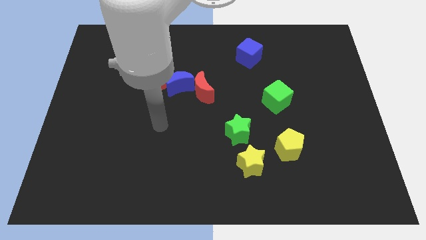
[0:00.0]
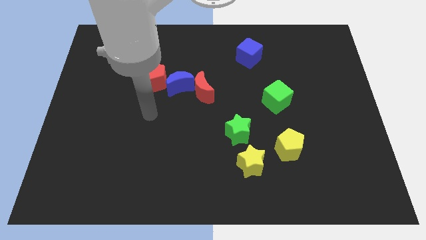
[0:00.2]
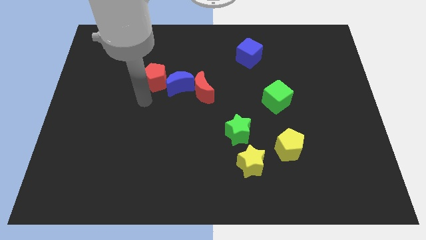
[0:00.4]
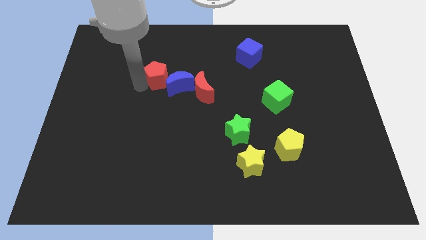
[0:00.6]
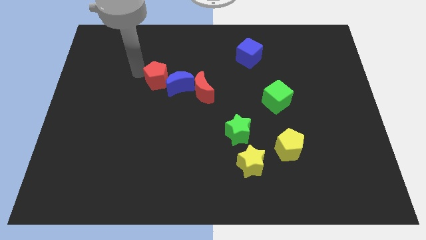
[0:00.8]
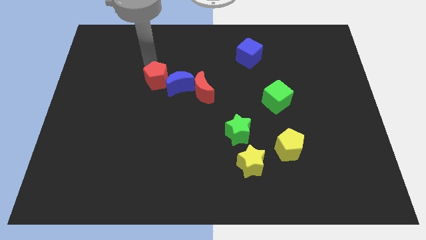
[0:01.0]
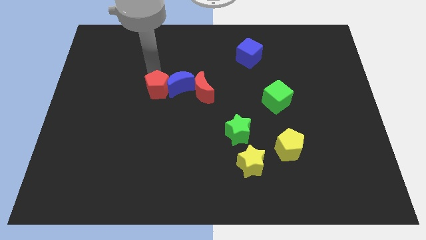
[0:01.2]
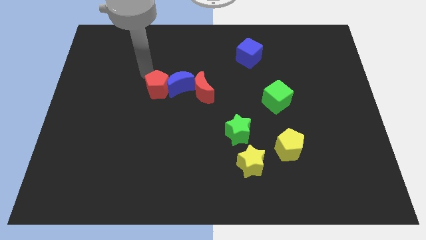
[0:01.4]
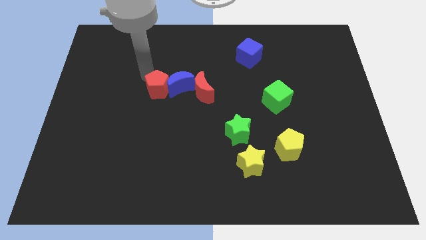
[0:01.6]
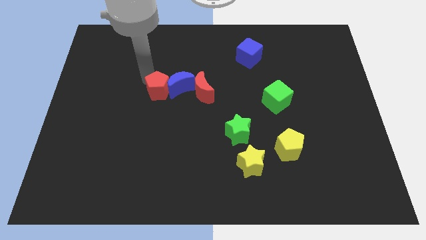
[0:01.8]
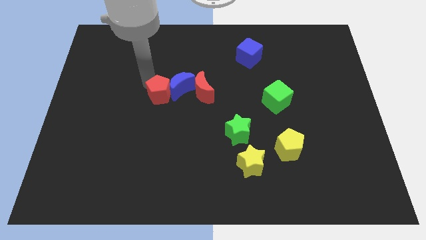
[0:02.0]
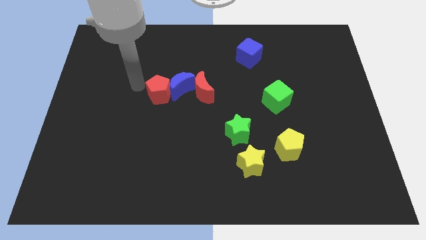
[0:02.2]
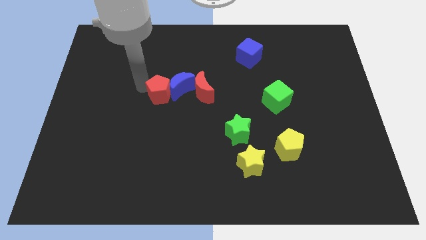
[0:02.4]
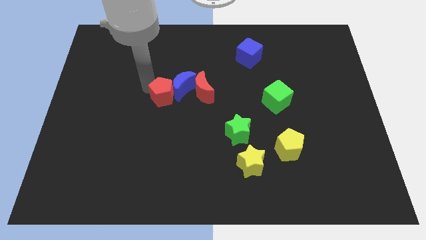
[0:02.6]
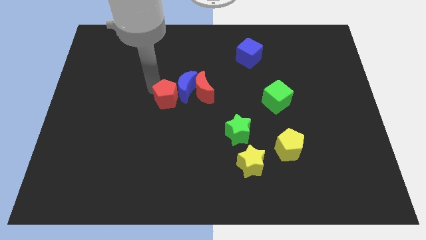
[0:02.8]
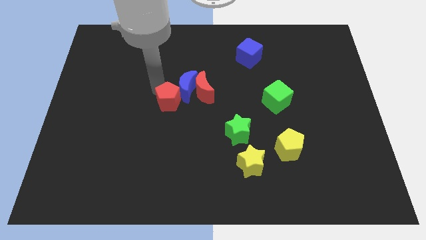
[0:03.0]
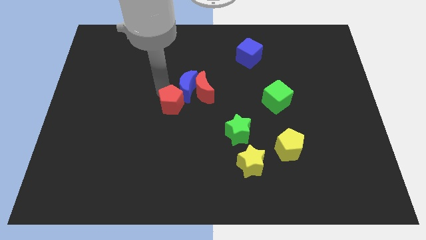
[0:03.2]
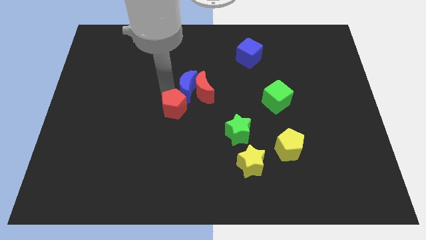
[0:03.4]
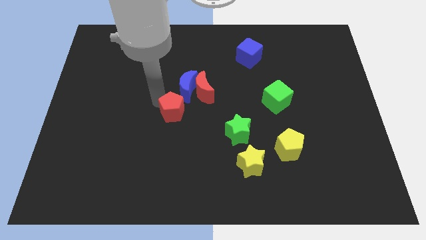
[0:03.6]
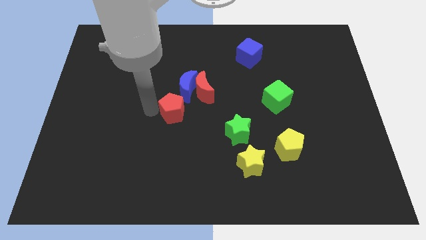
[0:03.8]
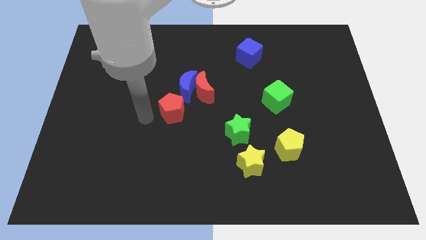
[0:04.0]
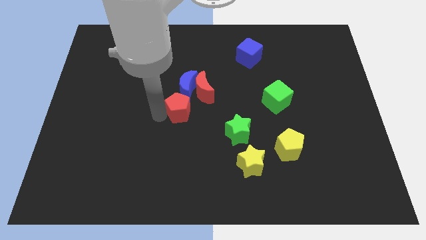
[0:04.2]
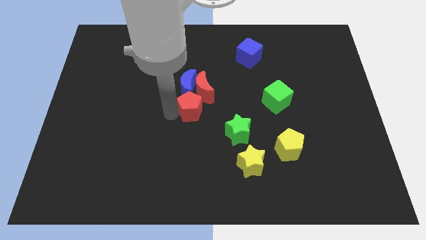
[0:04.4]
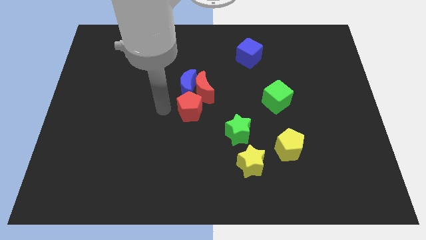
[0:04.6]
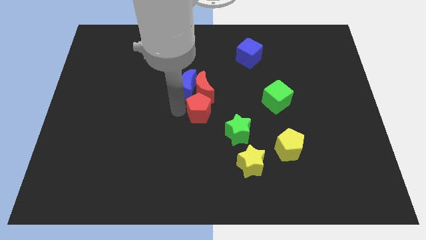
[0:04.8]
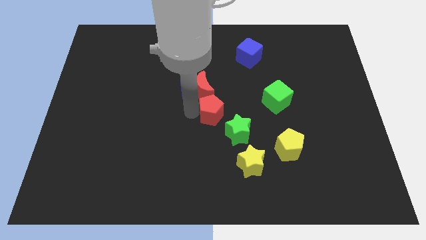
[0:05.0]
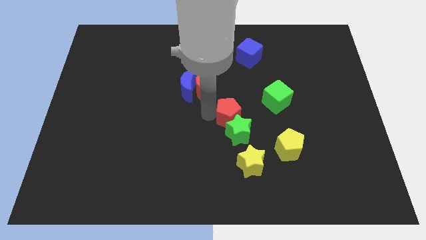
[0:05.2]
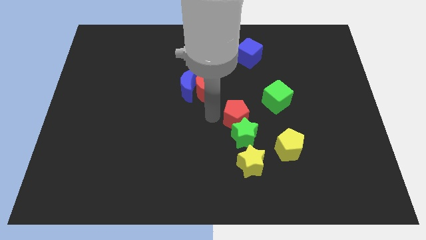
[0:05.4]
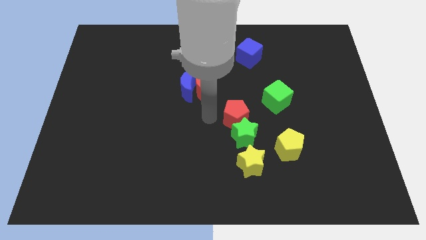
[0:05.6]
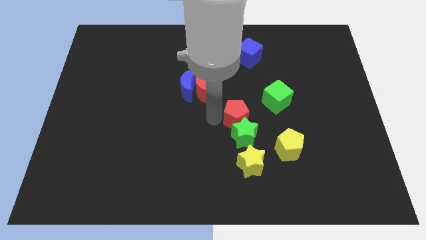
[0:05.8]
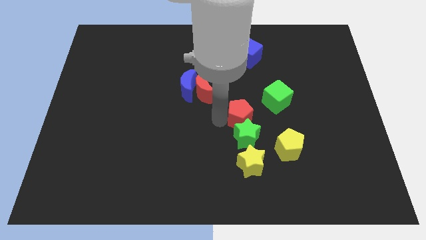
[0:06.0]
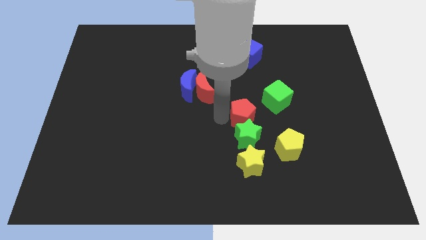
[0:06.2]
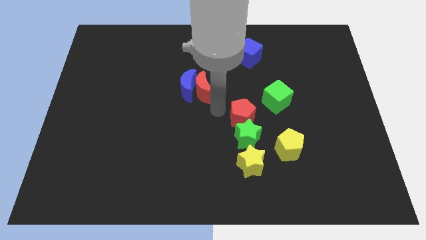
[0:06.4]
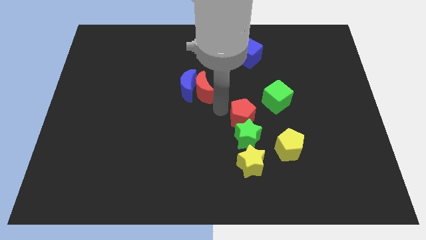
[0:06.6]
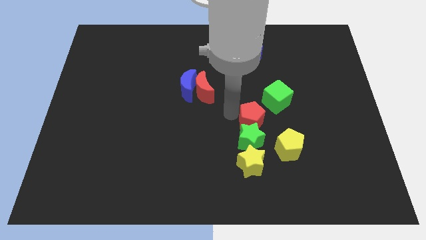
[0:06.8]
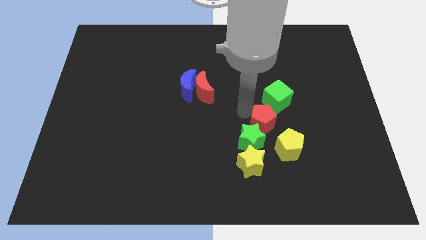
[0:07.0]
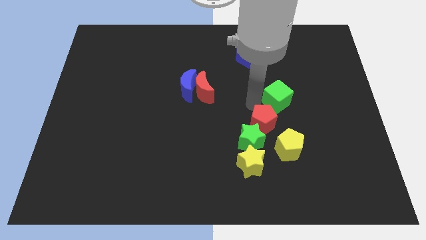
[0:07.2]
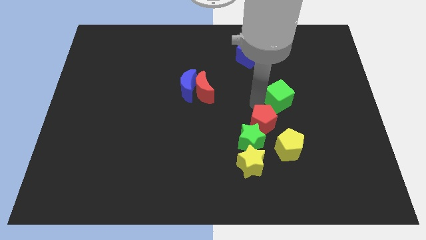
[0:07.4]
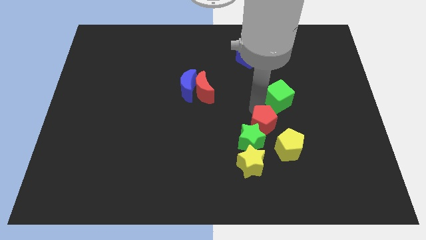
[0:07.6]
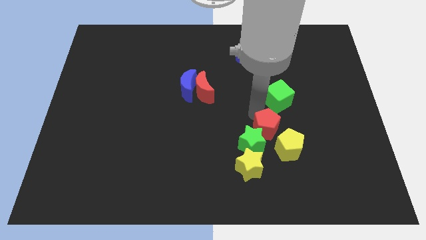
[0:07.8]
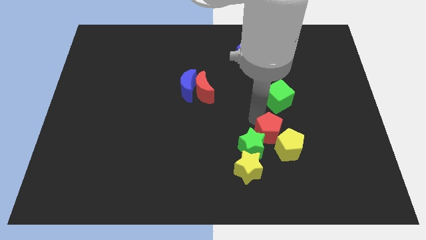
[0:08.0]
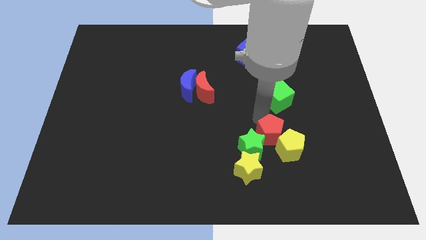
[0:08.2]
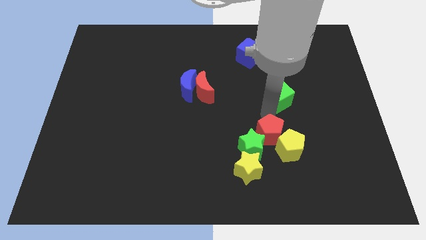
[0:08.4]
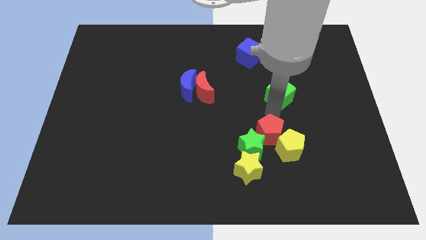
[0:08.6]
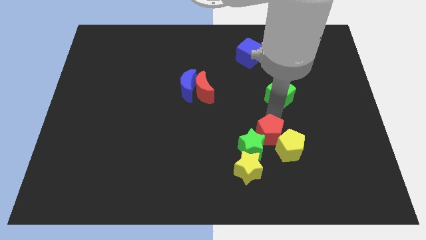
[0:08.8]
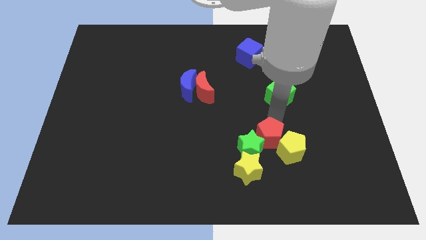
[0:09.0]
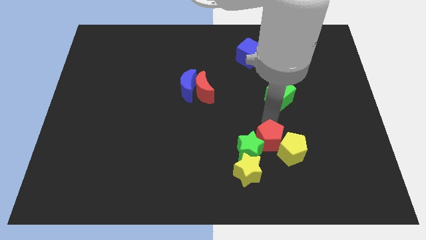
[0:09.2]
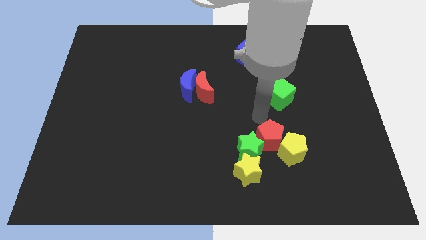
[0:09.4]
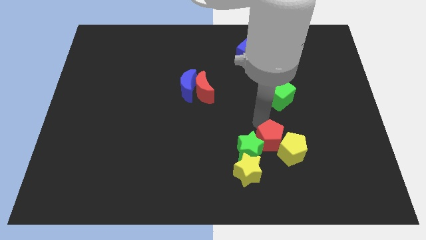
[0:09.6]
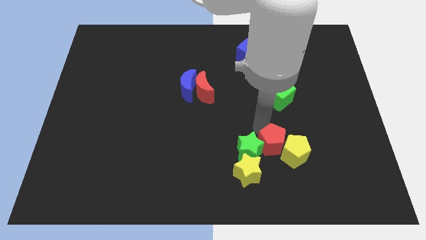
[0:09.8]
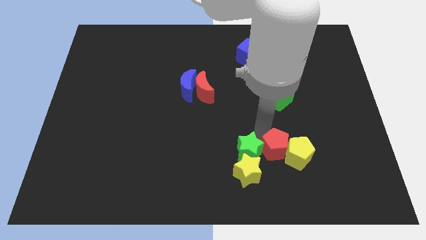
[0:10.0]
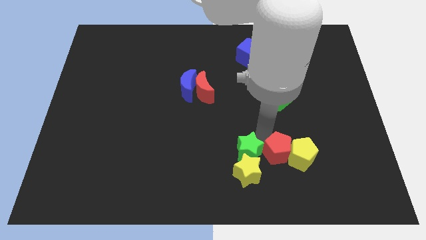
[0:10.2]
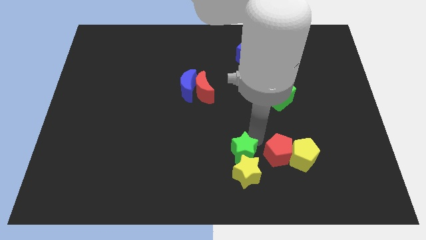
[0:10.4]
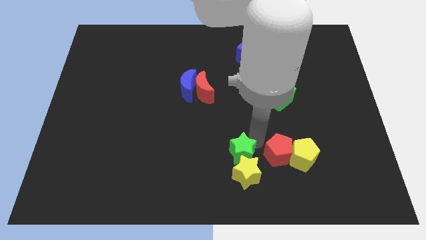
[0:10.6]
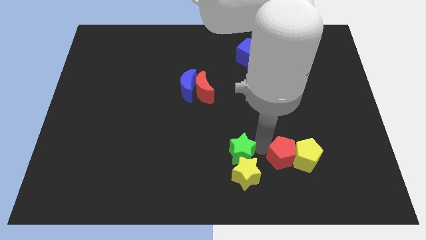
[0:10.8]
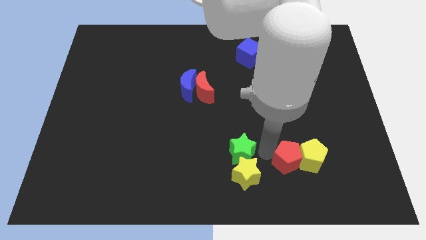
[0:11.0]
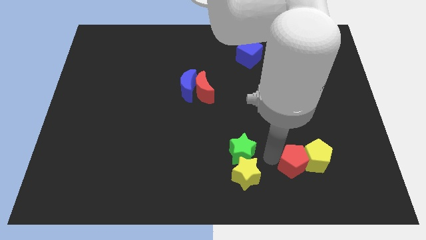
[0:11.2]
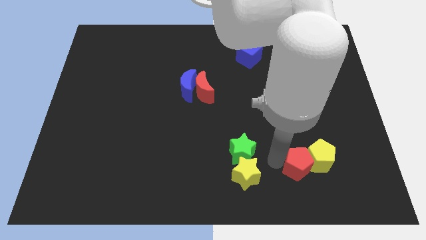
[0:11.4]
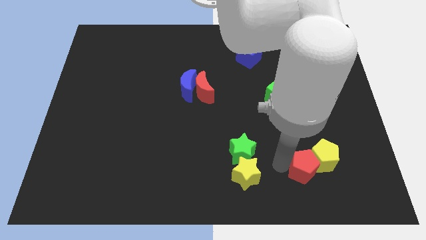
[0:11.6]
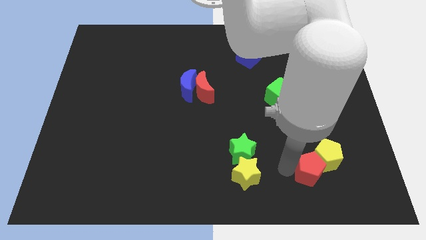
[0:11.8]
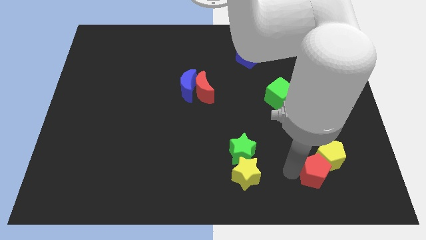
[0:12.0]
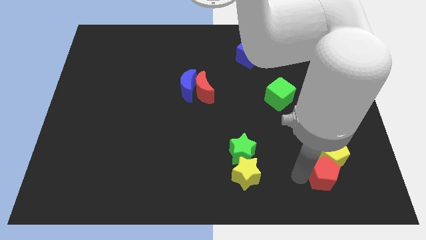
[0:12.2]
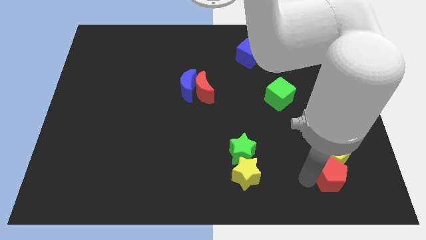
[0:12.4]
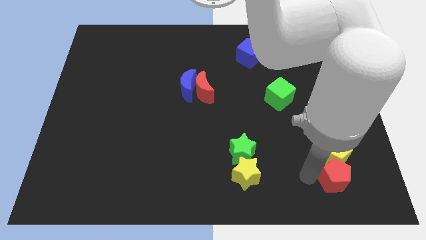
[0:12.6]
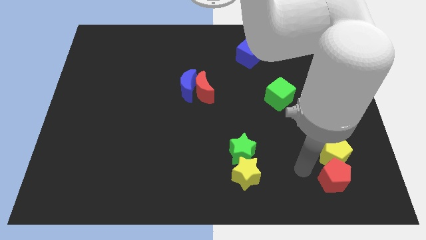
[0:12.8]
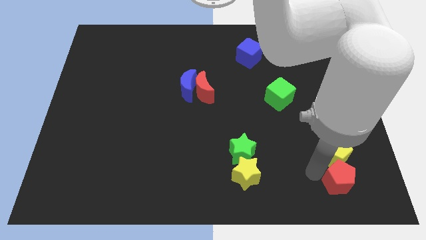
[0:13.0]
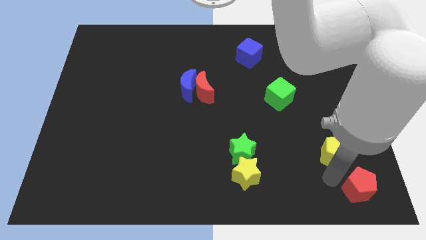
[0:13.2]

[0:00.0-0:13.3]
move the red pentagon to the bottom right

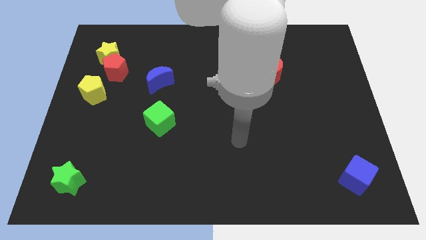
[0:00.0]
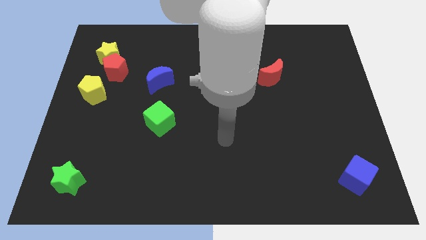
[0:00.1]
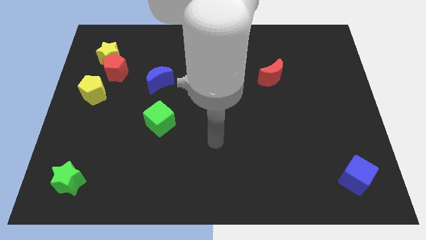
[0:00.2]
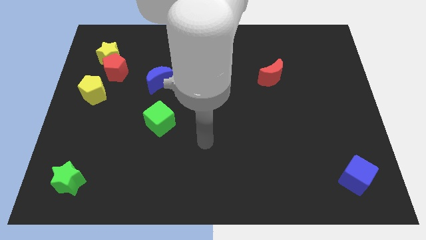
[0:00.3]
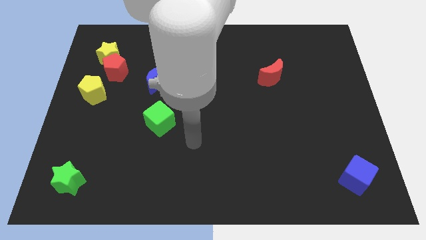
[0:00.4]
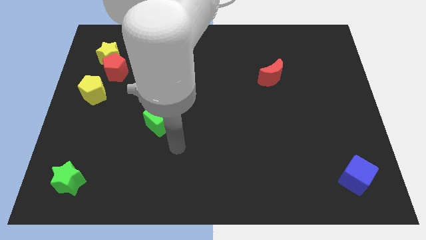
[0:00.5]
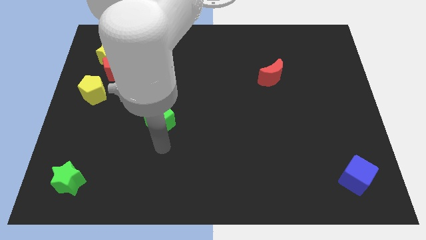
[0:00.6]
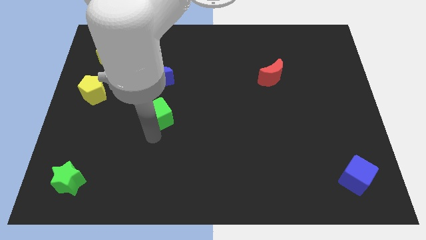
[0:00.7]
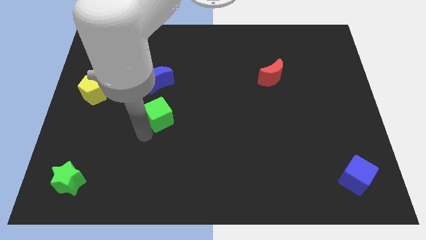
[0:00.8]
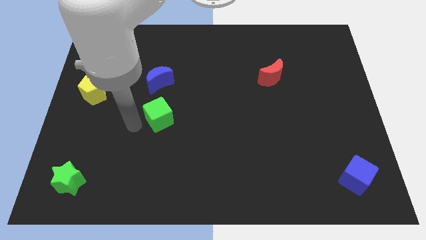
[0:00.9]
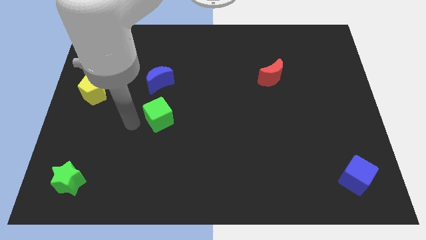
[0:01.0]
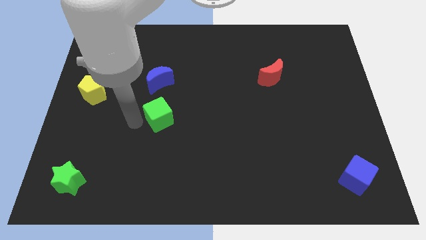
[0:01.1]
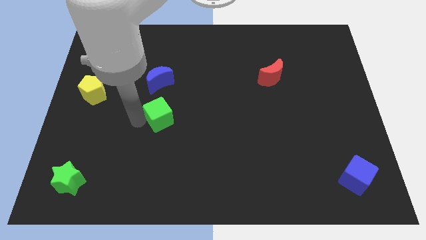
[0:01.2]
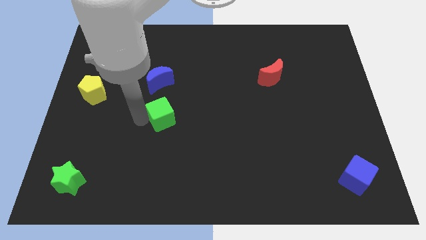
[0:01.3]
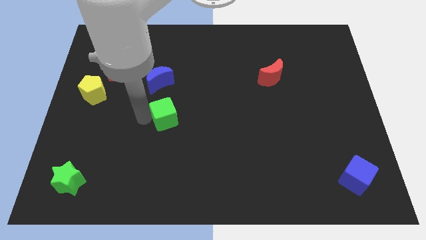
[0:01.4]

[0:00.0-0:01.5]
slide the green cube to the center of the board
